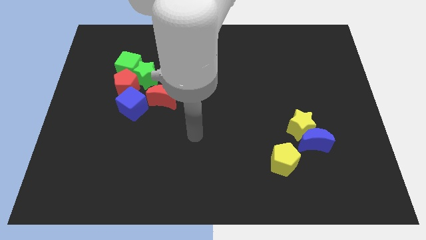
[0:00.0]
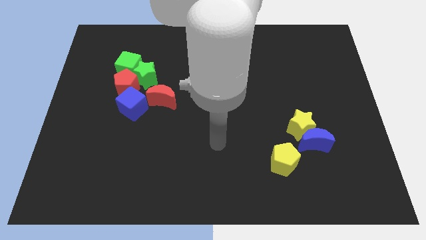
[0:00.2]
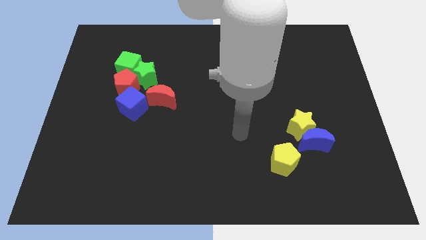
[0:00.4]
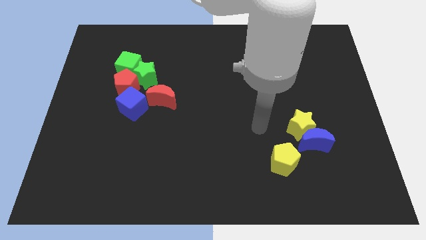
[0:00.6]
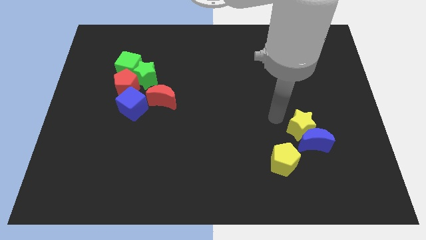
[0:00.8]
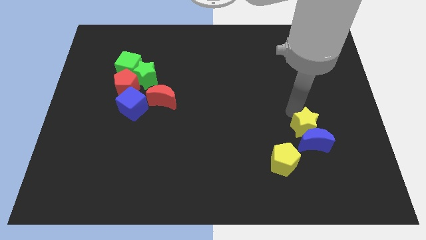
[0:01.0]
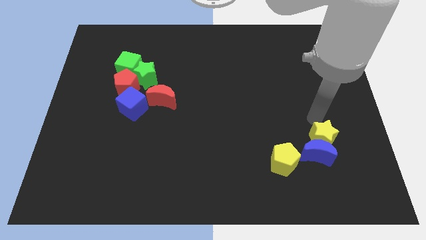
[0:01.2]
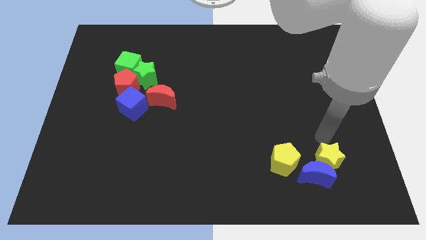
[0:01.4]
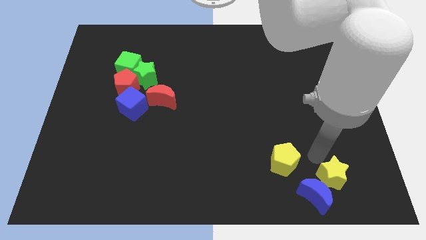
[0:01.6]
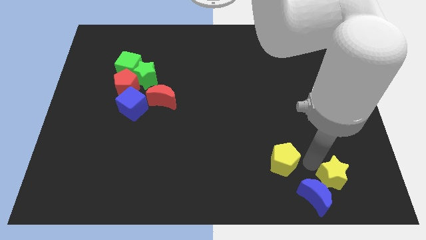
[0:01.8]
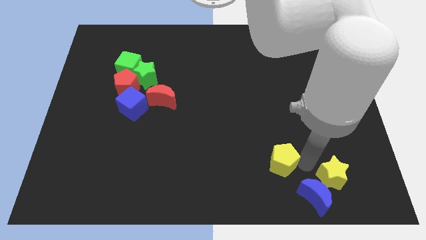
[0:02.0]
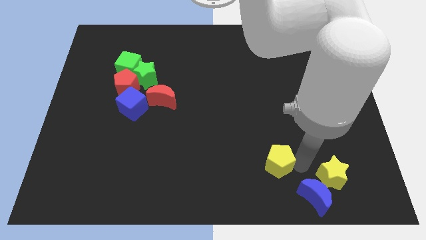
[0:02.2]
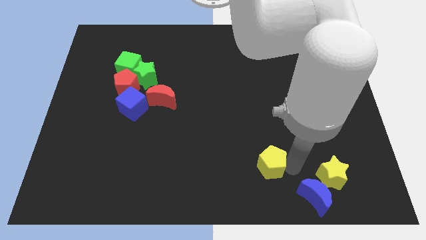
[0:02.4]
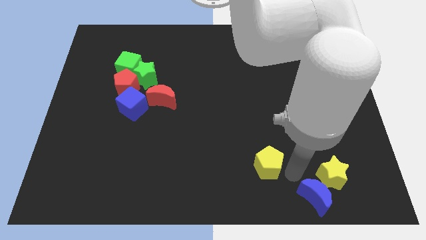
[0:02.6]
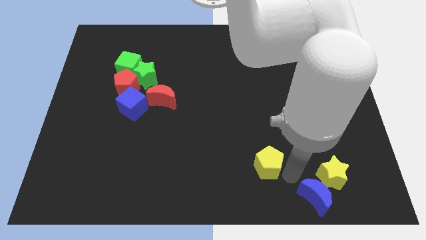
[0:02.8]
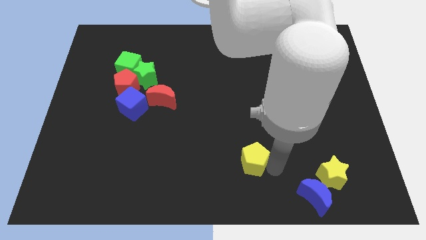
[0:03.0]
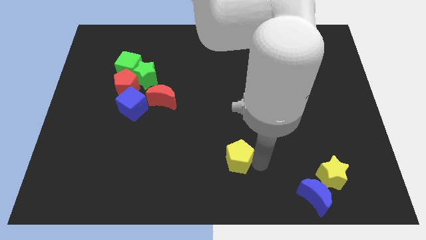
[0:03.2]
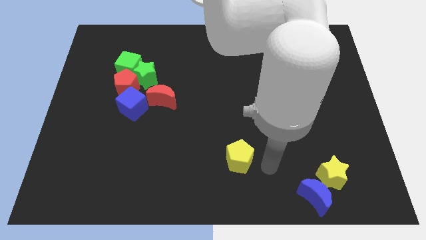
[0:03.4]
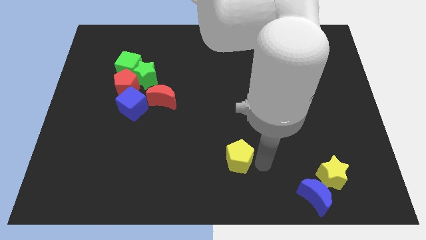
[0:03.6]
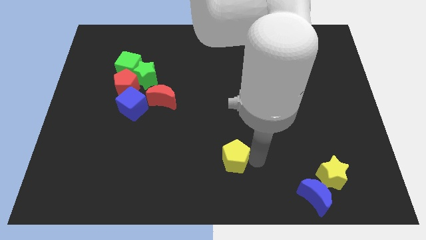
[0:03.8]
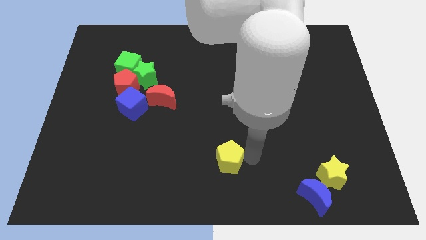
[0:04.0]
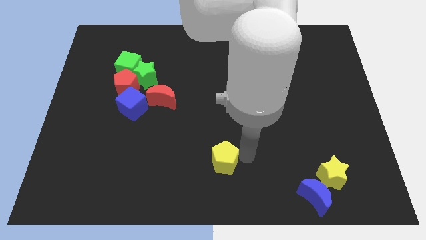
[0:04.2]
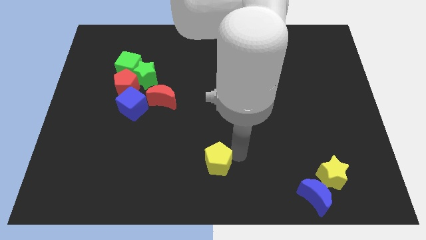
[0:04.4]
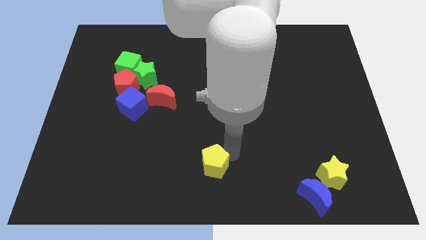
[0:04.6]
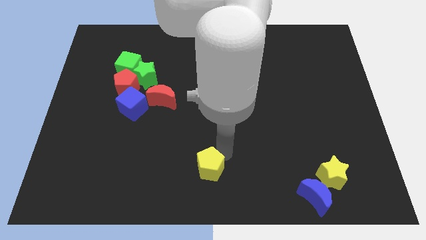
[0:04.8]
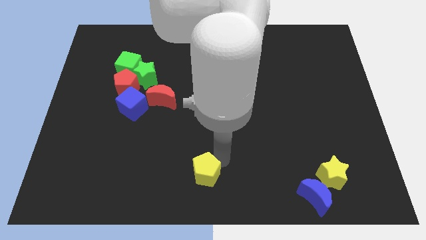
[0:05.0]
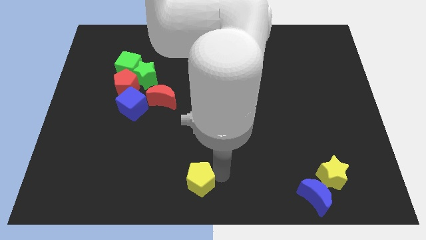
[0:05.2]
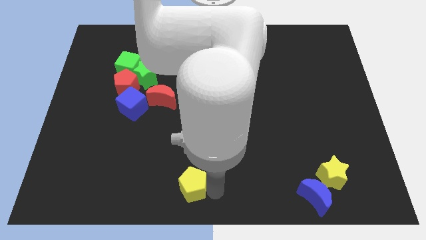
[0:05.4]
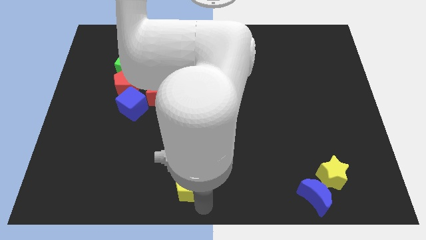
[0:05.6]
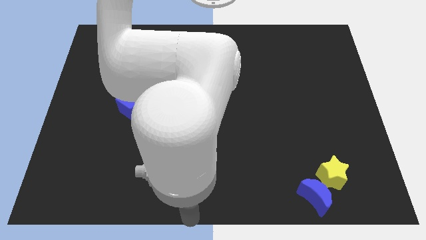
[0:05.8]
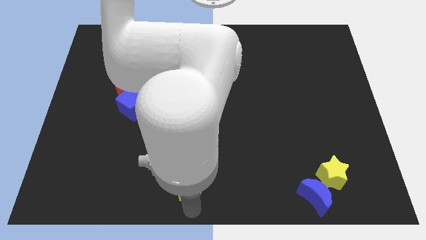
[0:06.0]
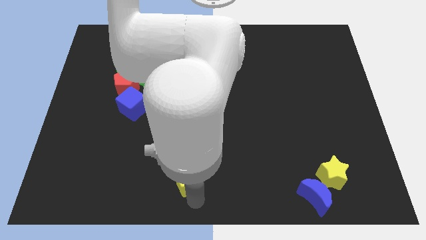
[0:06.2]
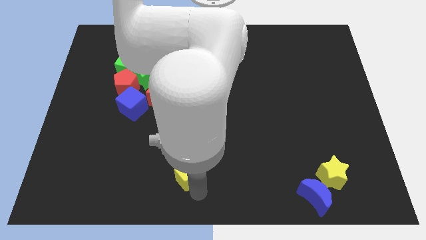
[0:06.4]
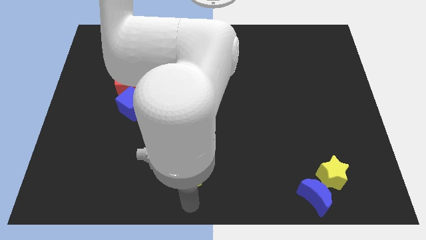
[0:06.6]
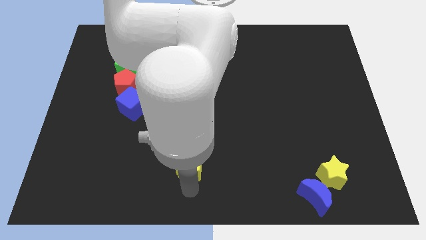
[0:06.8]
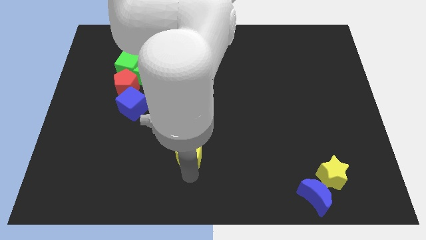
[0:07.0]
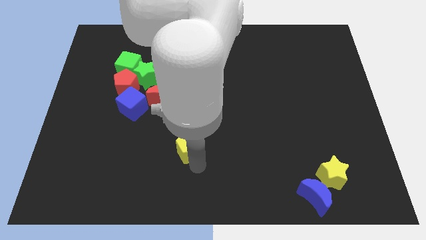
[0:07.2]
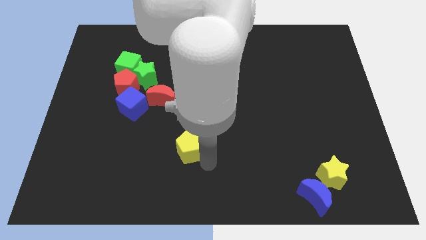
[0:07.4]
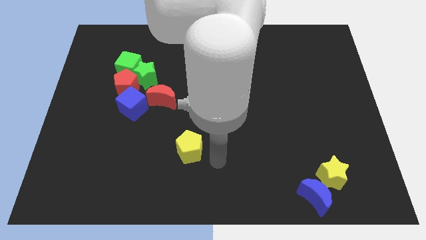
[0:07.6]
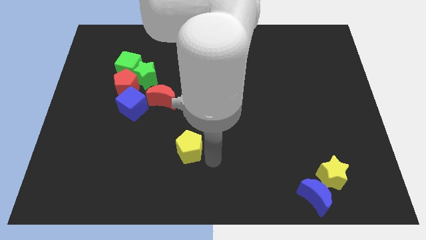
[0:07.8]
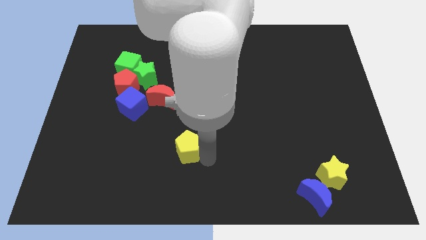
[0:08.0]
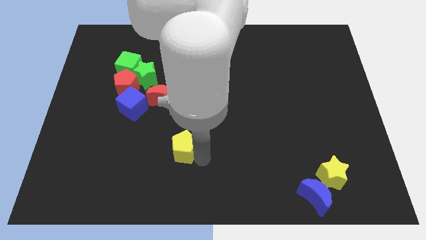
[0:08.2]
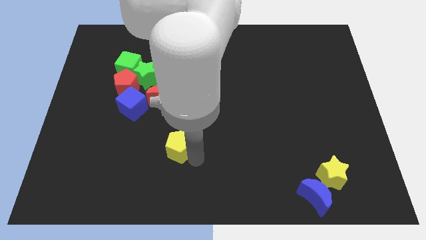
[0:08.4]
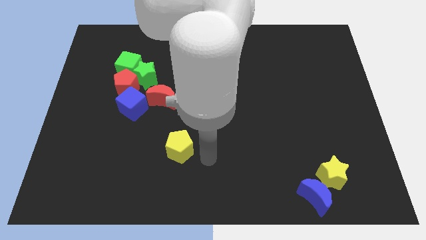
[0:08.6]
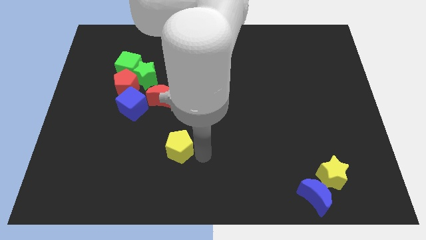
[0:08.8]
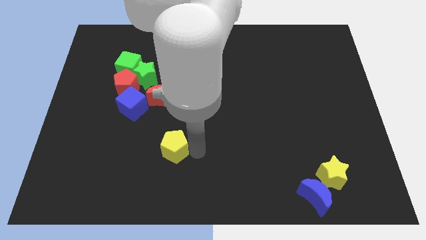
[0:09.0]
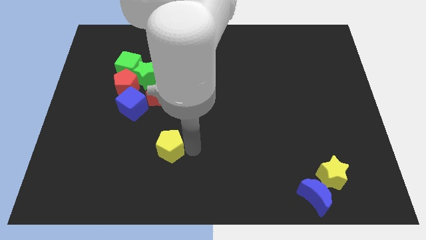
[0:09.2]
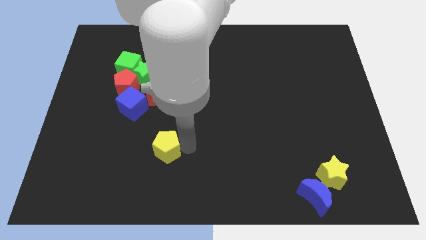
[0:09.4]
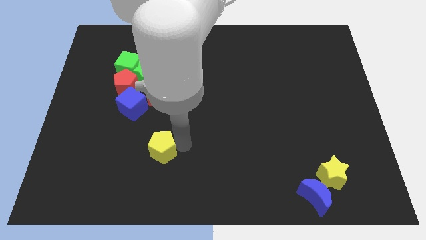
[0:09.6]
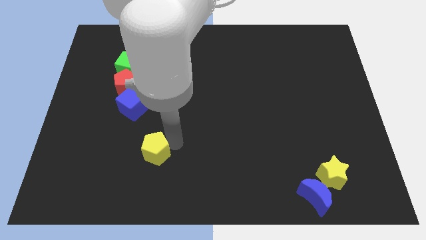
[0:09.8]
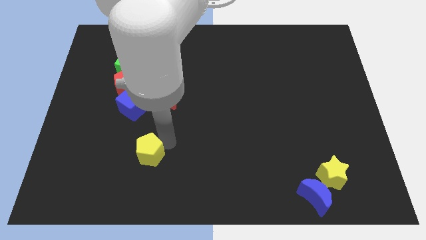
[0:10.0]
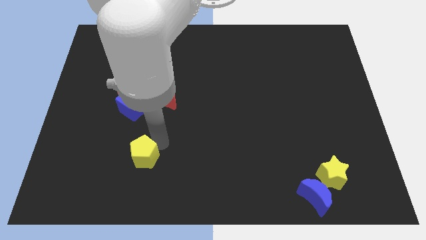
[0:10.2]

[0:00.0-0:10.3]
put the yellow pentagon to the bottom of the blue cube

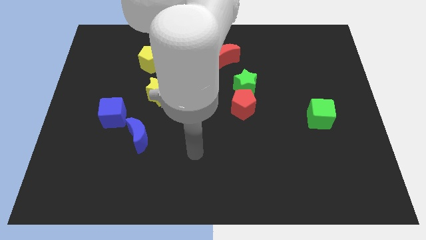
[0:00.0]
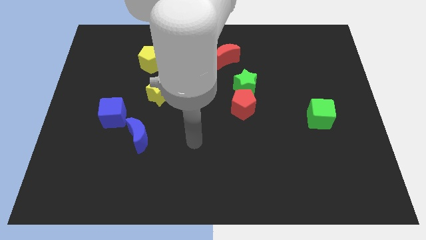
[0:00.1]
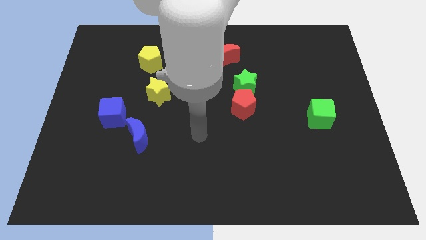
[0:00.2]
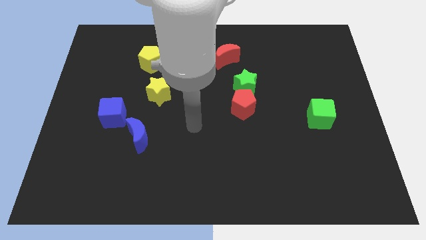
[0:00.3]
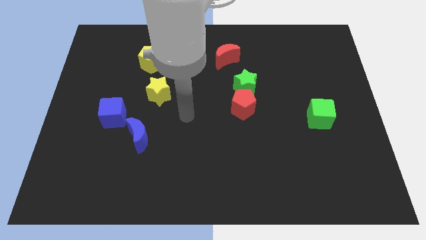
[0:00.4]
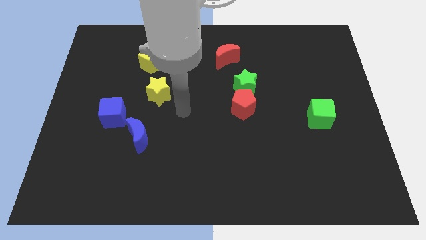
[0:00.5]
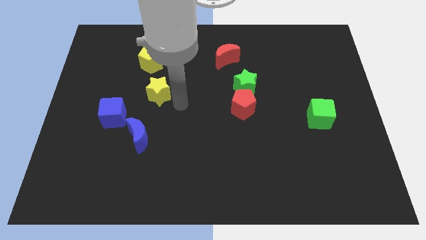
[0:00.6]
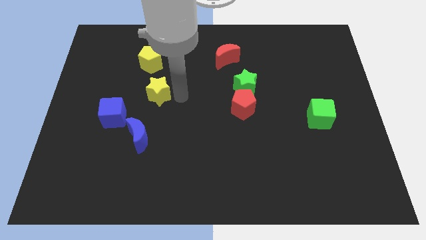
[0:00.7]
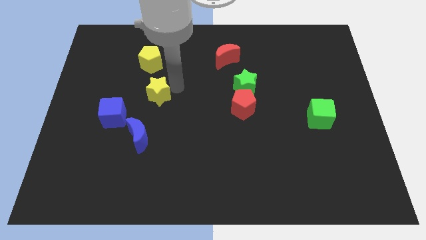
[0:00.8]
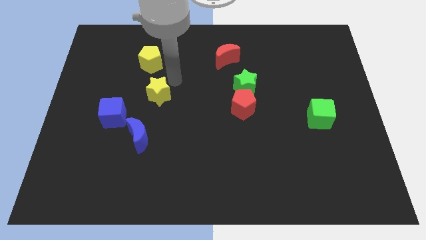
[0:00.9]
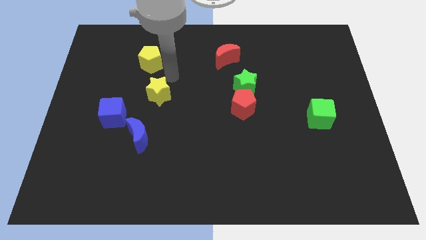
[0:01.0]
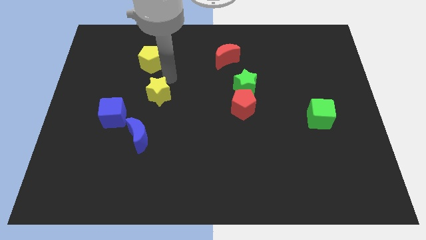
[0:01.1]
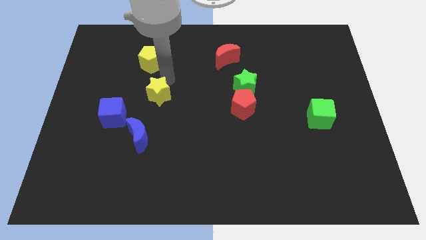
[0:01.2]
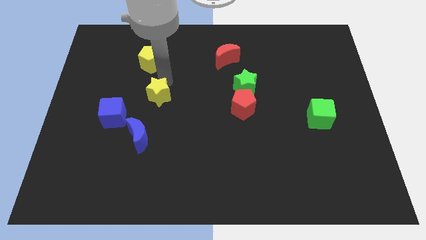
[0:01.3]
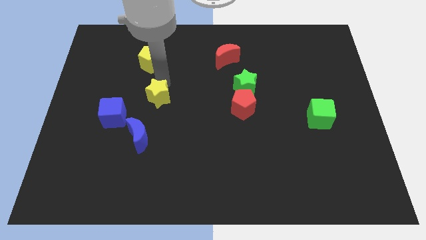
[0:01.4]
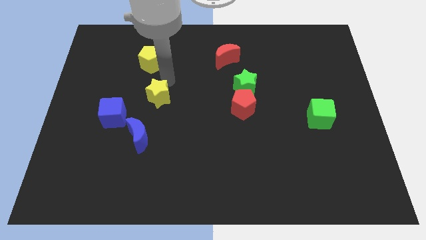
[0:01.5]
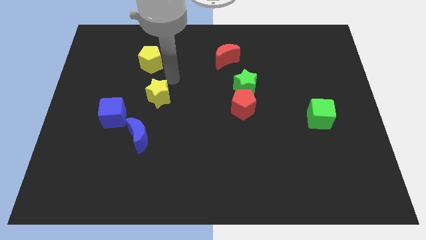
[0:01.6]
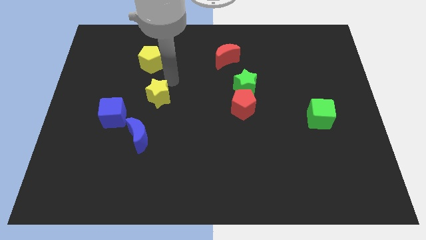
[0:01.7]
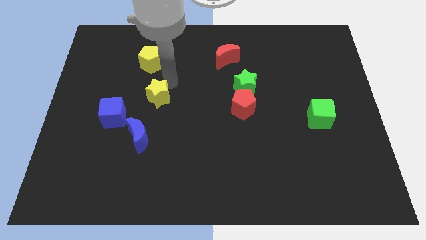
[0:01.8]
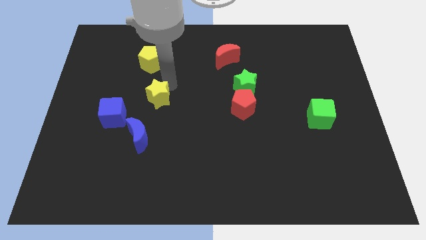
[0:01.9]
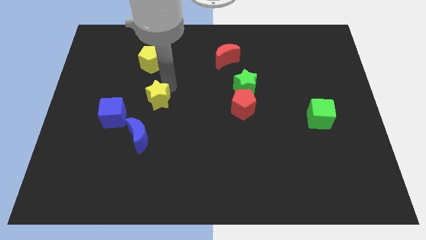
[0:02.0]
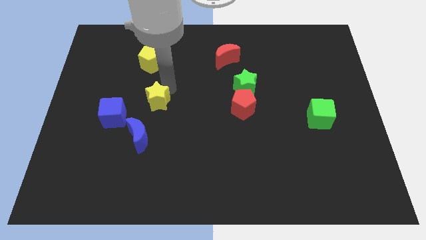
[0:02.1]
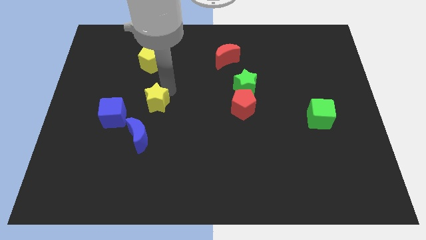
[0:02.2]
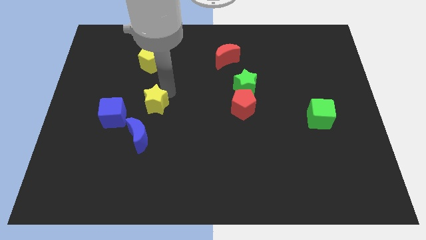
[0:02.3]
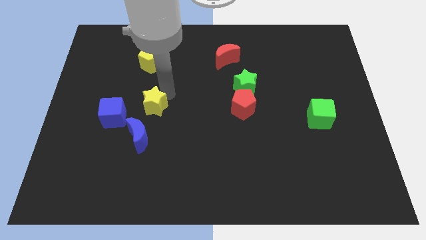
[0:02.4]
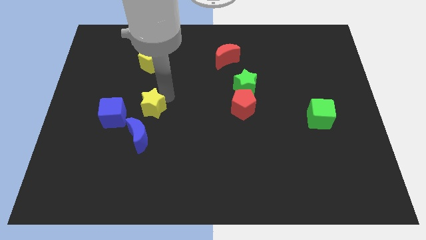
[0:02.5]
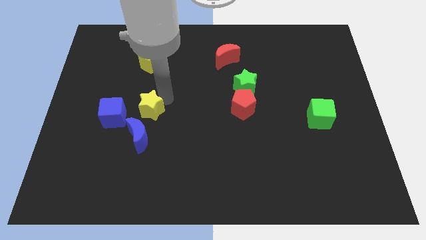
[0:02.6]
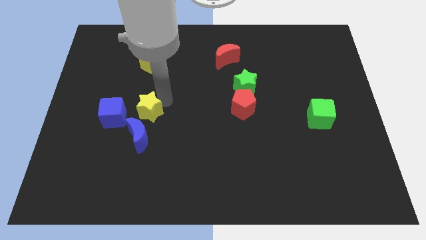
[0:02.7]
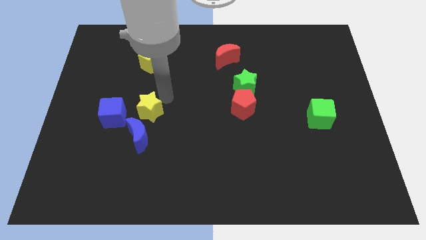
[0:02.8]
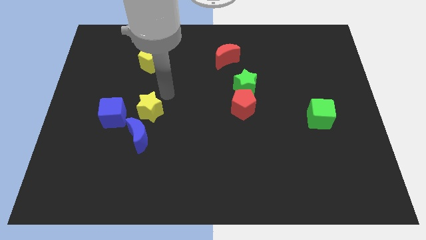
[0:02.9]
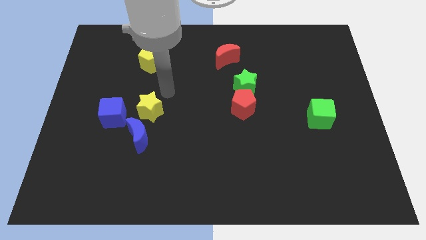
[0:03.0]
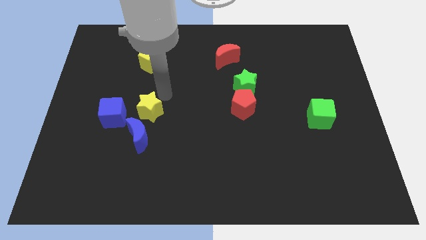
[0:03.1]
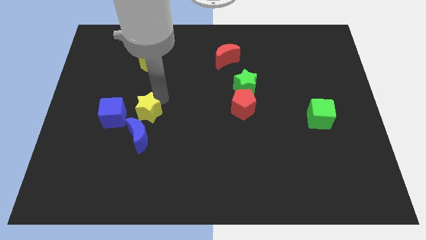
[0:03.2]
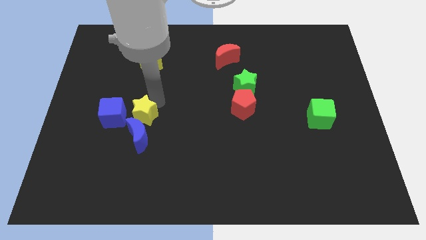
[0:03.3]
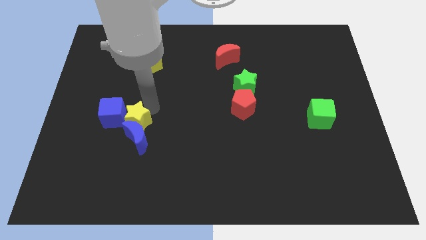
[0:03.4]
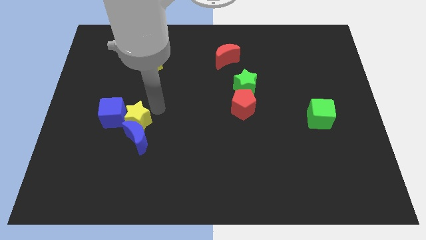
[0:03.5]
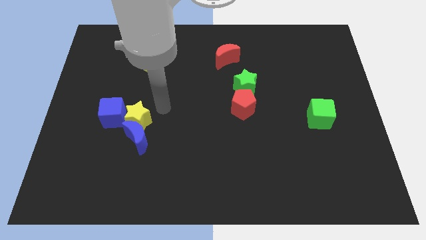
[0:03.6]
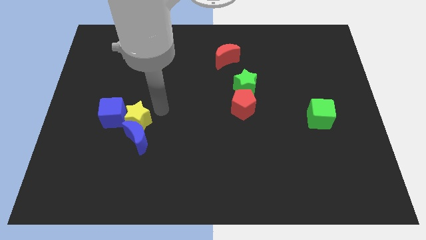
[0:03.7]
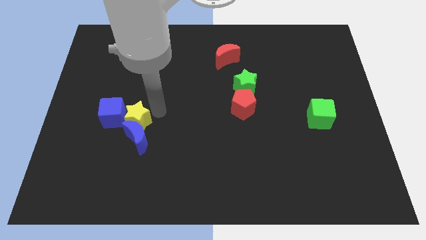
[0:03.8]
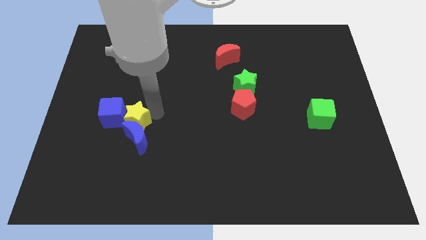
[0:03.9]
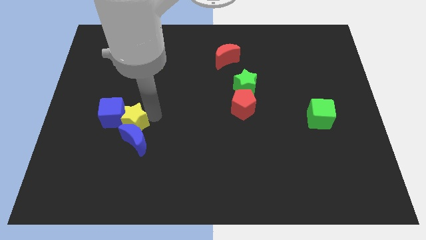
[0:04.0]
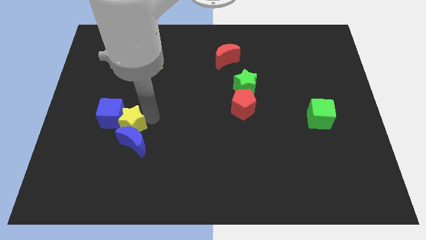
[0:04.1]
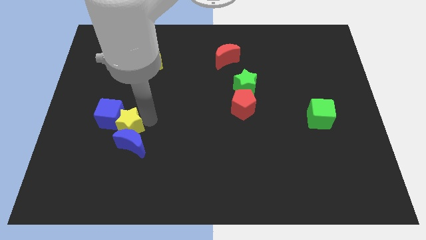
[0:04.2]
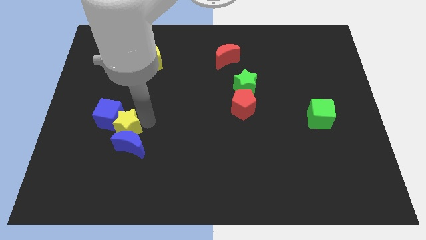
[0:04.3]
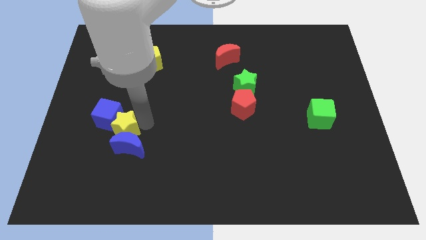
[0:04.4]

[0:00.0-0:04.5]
move the yellow star below the blue cube
